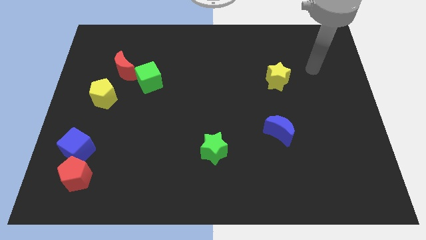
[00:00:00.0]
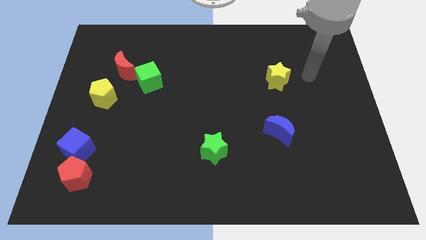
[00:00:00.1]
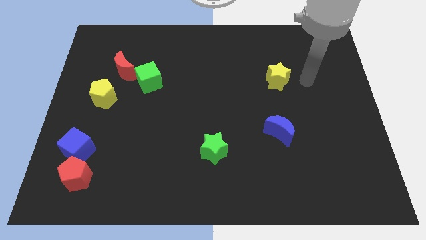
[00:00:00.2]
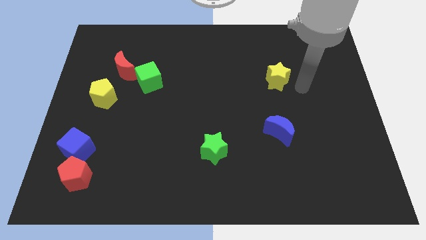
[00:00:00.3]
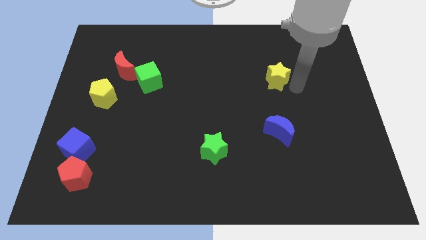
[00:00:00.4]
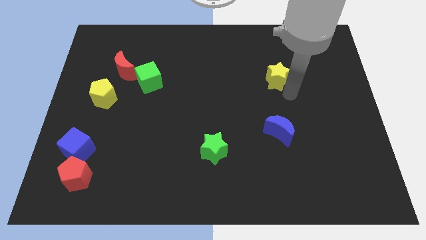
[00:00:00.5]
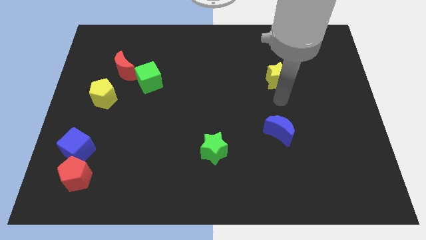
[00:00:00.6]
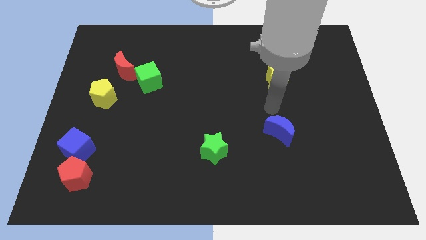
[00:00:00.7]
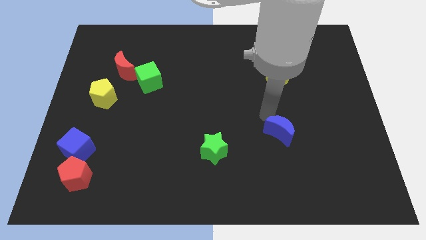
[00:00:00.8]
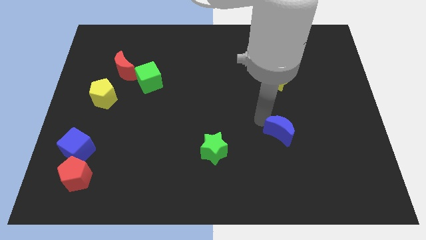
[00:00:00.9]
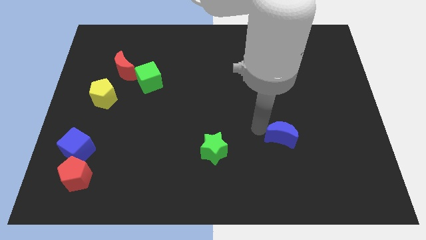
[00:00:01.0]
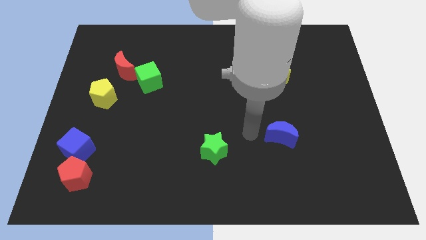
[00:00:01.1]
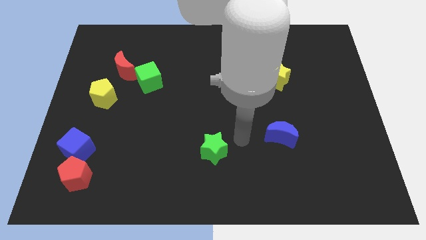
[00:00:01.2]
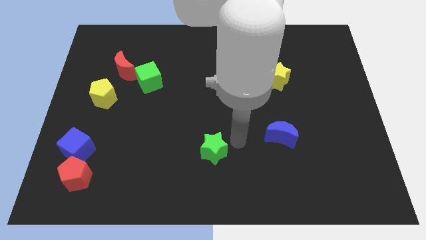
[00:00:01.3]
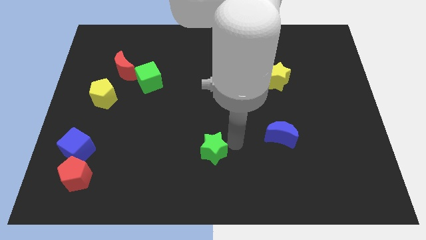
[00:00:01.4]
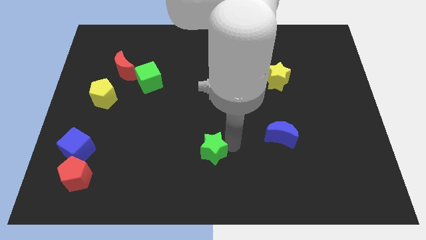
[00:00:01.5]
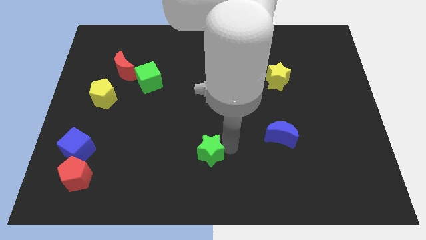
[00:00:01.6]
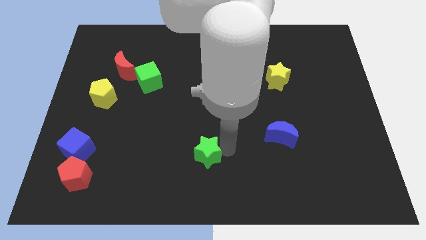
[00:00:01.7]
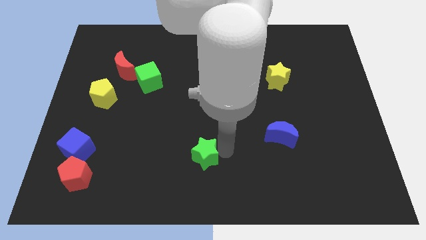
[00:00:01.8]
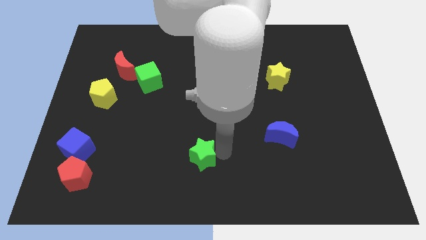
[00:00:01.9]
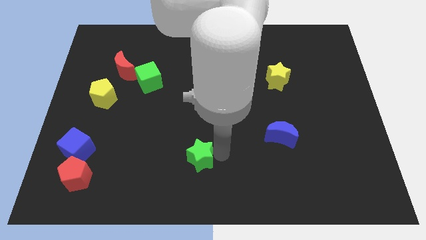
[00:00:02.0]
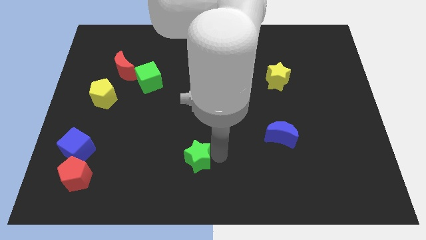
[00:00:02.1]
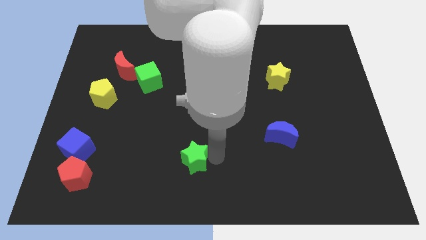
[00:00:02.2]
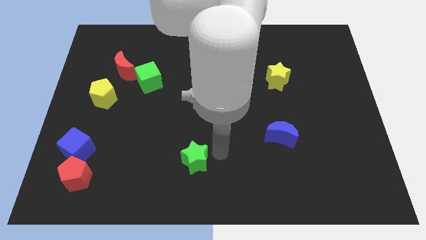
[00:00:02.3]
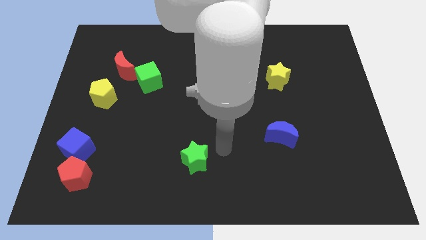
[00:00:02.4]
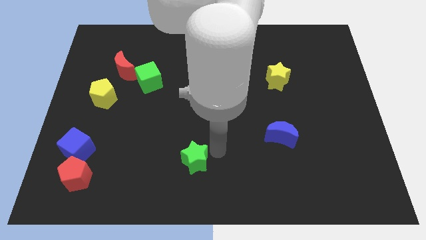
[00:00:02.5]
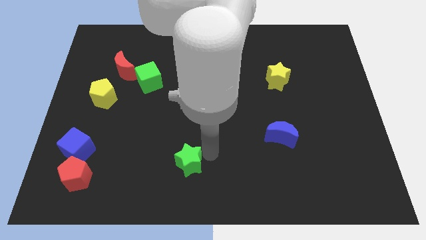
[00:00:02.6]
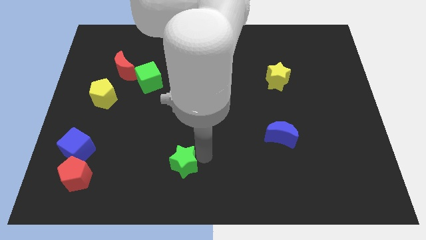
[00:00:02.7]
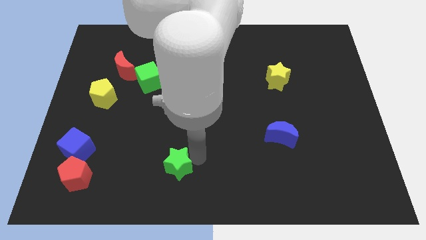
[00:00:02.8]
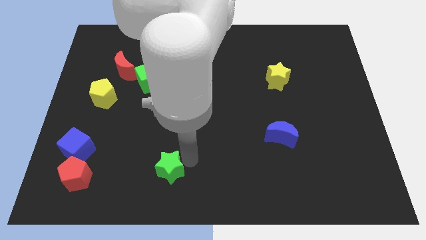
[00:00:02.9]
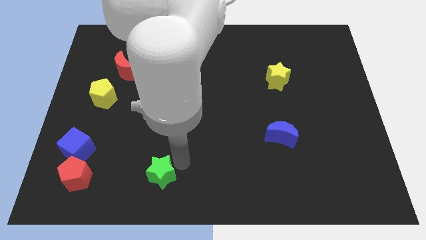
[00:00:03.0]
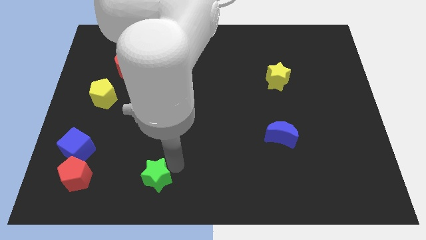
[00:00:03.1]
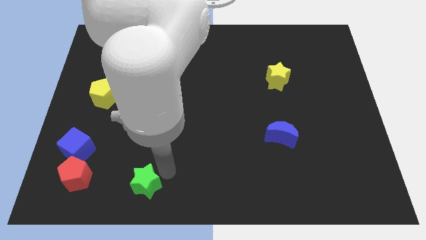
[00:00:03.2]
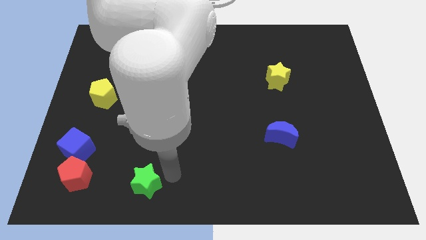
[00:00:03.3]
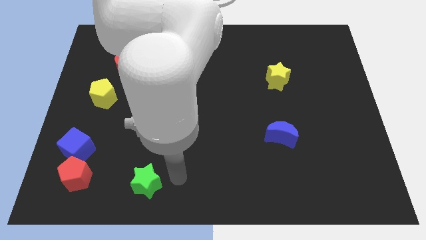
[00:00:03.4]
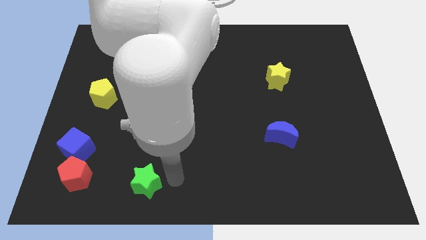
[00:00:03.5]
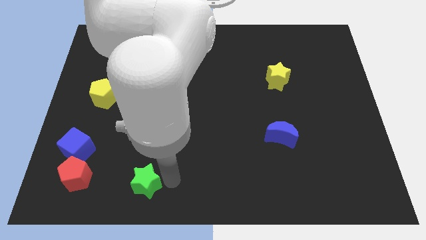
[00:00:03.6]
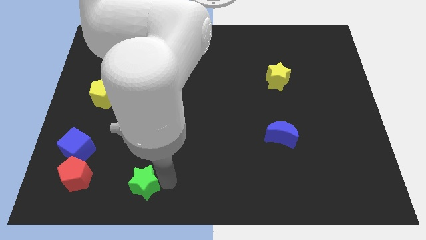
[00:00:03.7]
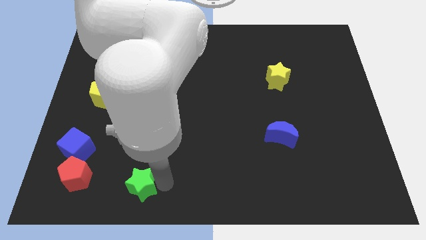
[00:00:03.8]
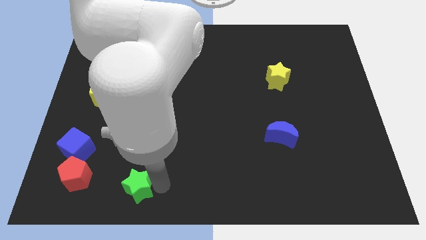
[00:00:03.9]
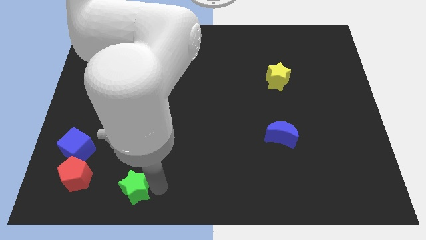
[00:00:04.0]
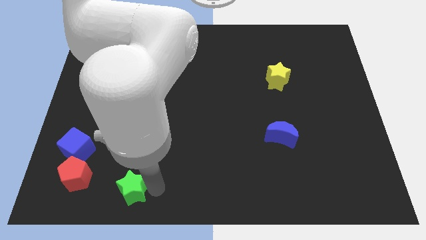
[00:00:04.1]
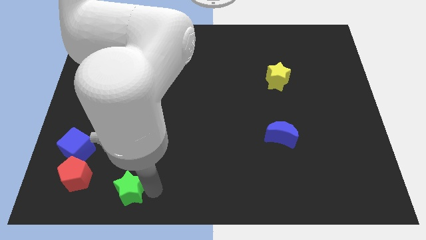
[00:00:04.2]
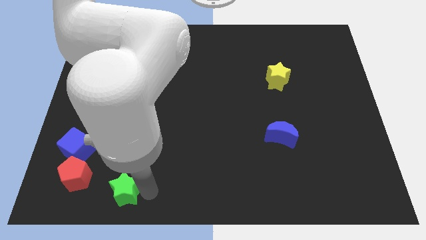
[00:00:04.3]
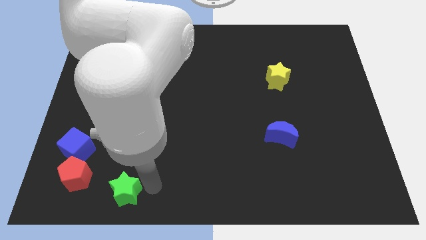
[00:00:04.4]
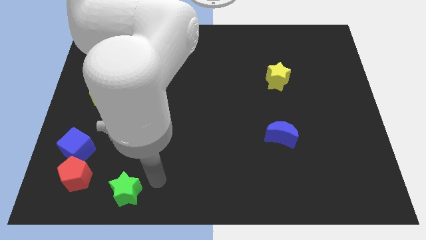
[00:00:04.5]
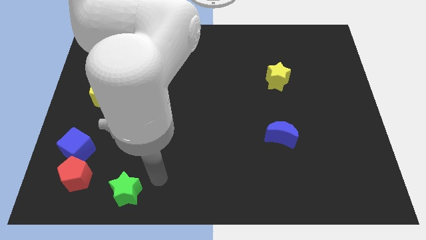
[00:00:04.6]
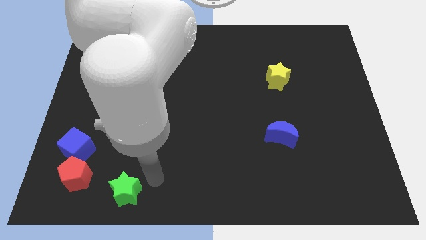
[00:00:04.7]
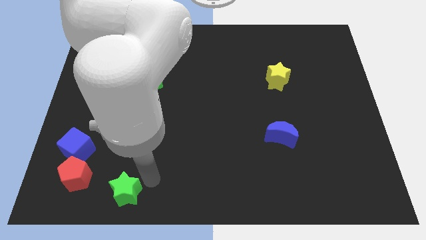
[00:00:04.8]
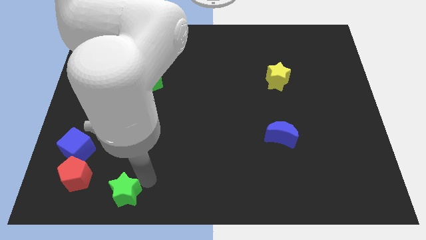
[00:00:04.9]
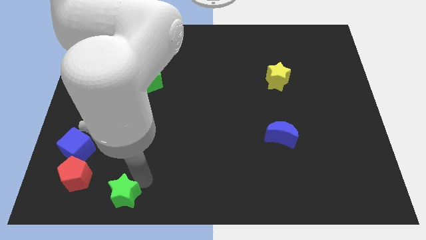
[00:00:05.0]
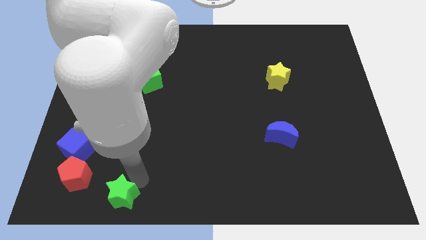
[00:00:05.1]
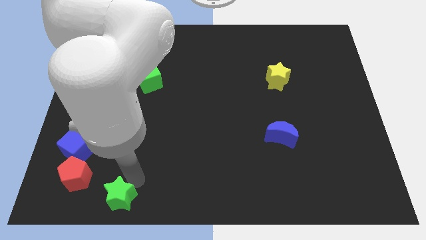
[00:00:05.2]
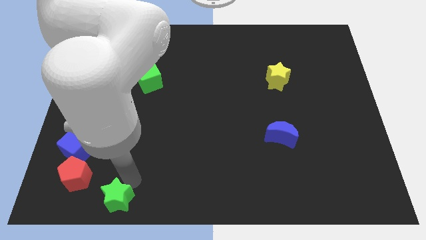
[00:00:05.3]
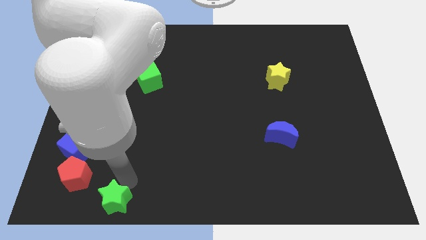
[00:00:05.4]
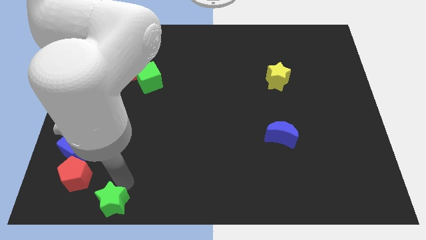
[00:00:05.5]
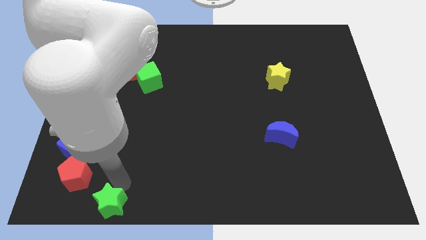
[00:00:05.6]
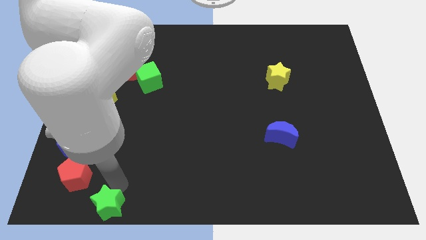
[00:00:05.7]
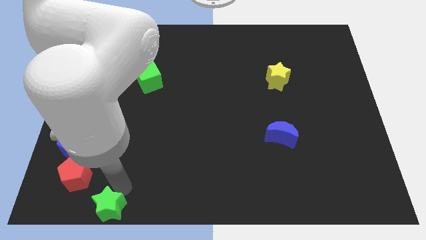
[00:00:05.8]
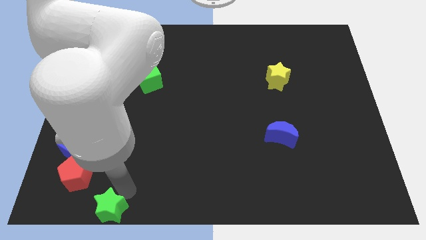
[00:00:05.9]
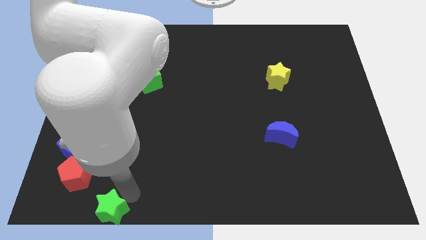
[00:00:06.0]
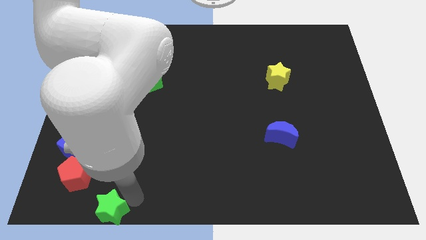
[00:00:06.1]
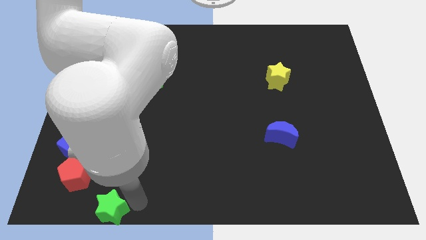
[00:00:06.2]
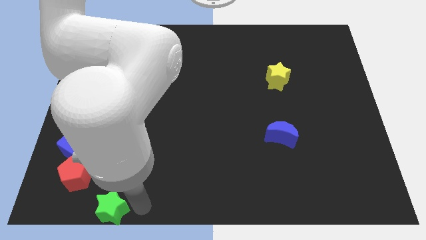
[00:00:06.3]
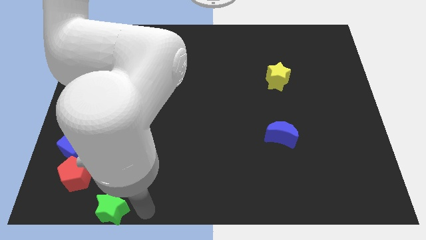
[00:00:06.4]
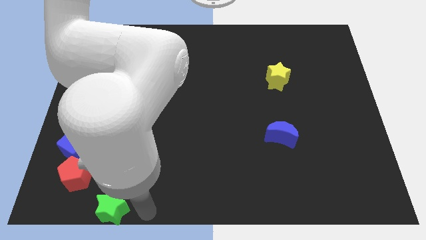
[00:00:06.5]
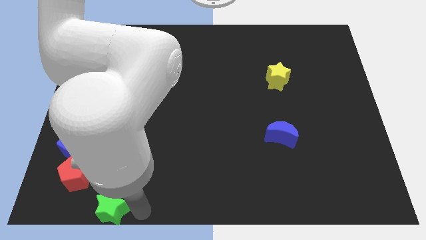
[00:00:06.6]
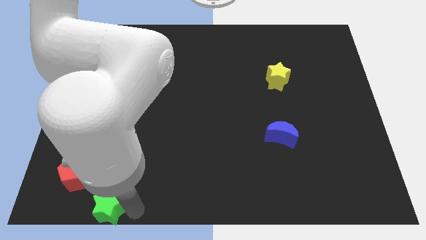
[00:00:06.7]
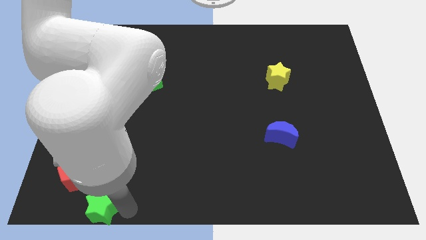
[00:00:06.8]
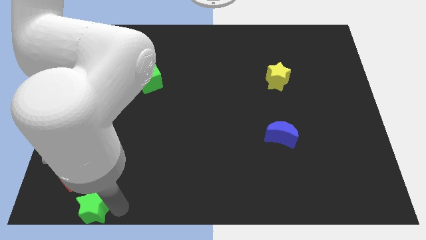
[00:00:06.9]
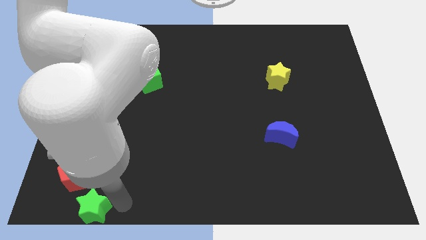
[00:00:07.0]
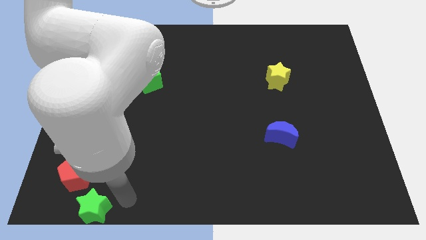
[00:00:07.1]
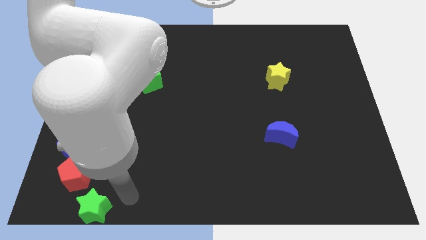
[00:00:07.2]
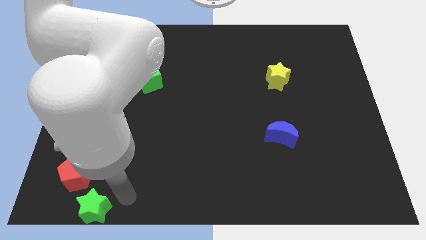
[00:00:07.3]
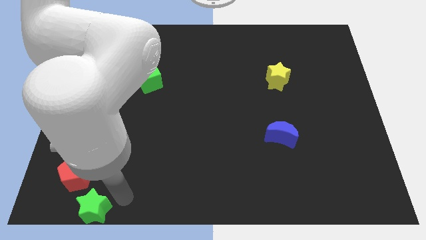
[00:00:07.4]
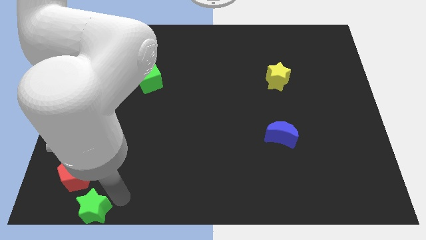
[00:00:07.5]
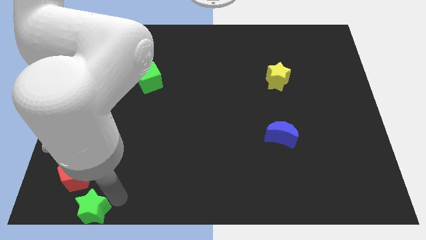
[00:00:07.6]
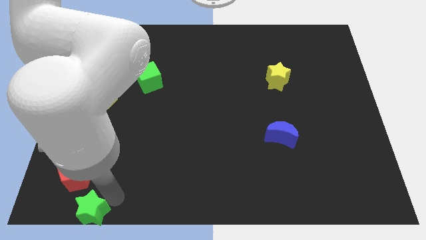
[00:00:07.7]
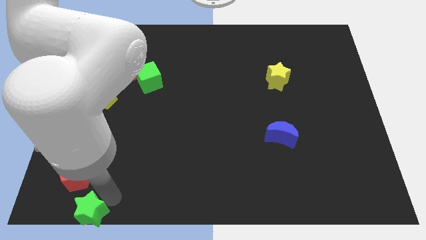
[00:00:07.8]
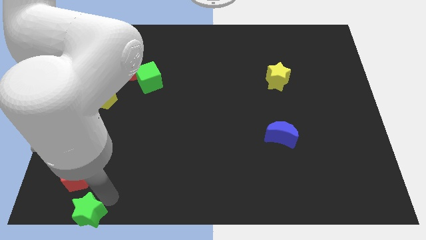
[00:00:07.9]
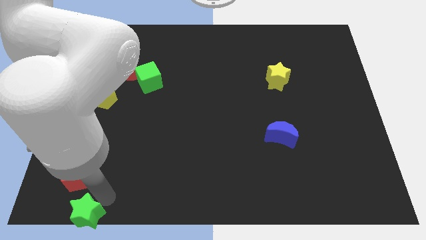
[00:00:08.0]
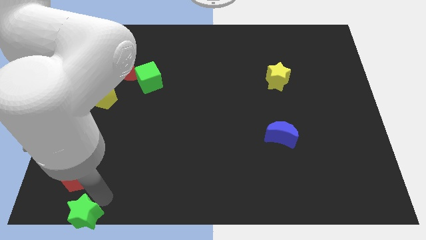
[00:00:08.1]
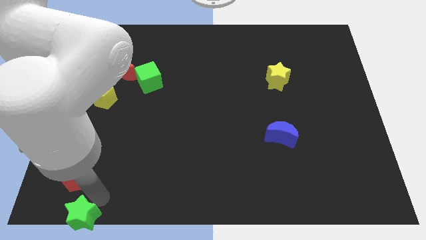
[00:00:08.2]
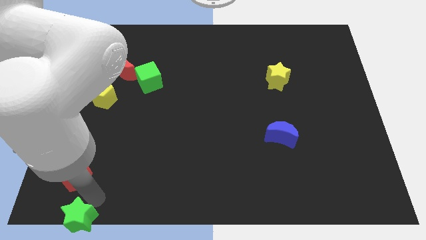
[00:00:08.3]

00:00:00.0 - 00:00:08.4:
slide the green star to the bottom left of the board
